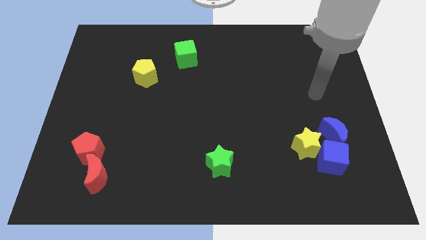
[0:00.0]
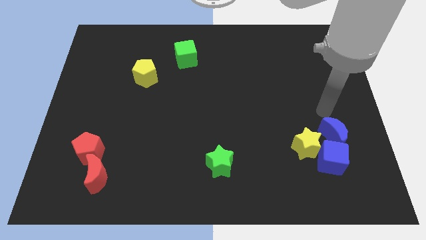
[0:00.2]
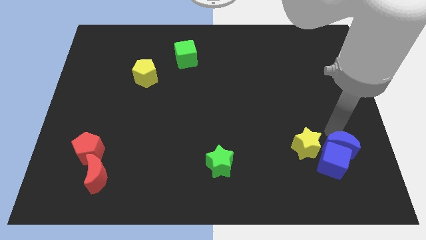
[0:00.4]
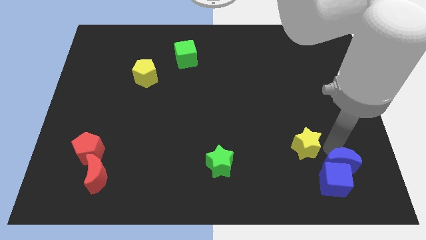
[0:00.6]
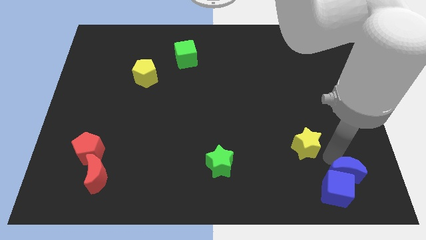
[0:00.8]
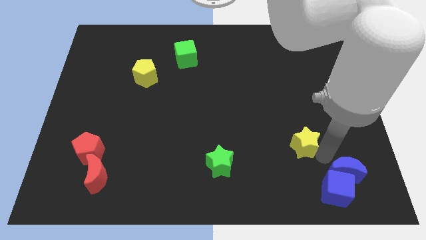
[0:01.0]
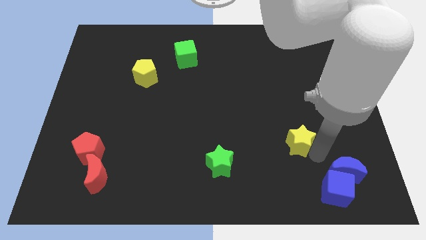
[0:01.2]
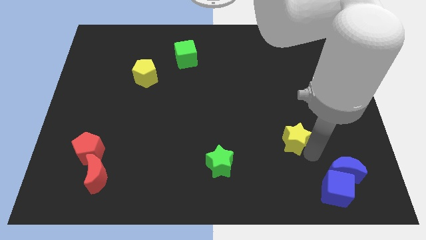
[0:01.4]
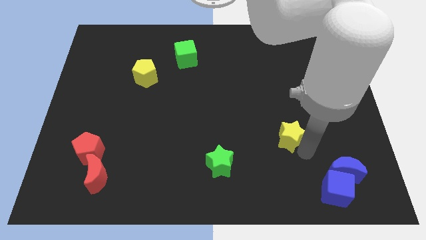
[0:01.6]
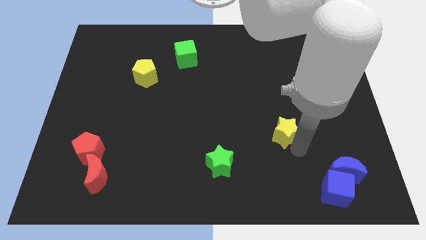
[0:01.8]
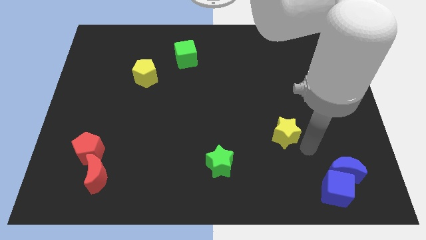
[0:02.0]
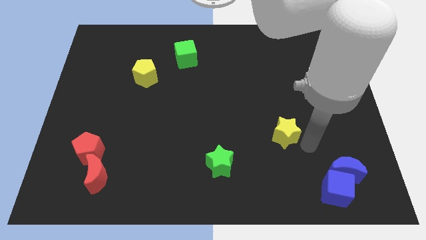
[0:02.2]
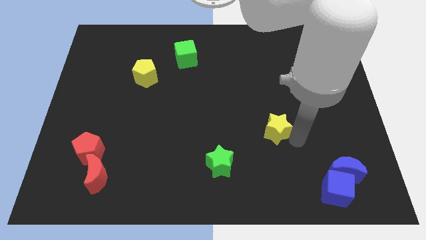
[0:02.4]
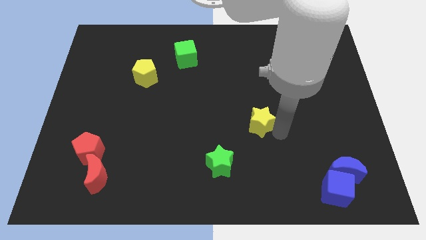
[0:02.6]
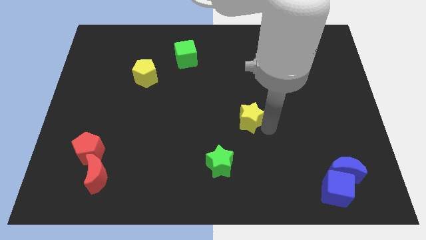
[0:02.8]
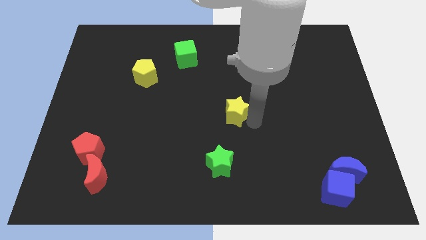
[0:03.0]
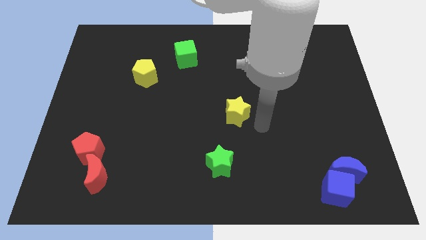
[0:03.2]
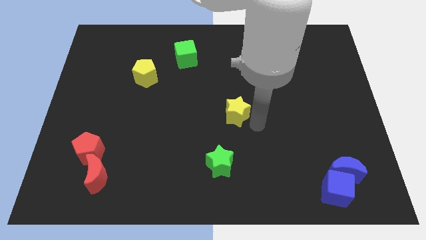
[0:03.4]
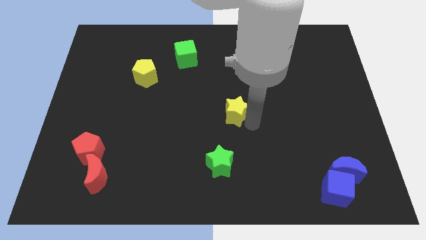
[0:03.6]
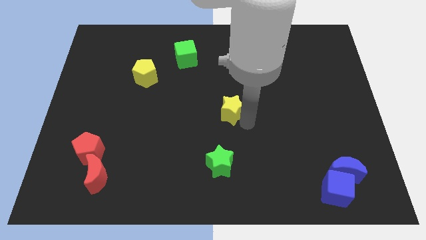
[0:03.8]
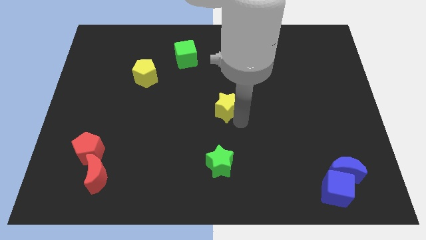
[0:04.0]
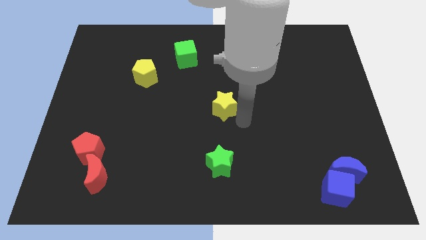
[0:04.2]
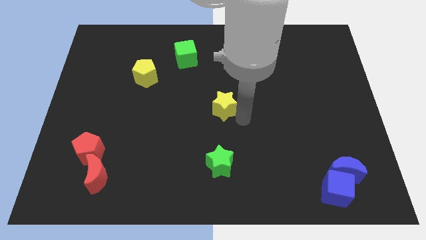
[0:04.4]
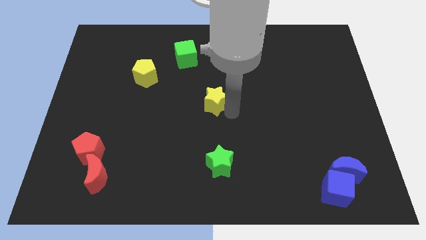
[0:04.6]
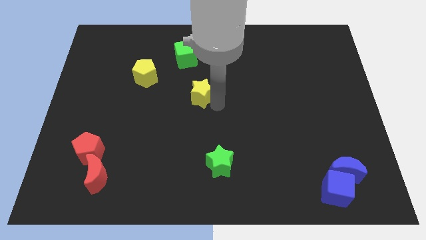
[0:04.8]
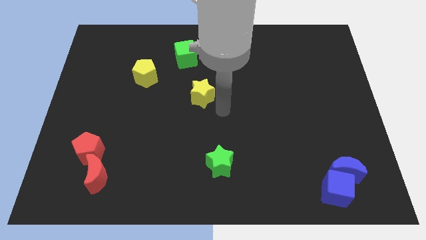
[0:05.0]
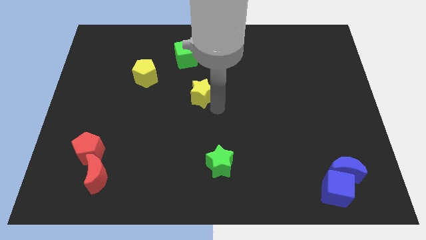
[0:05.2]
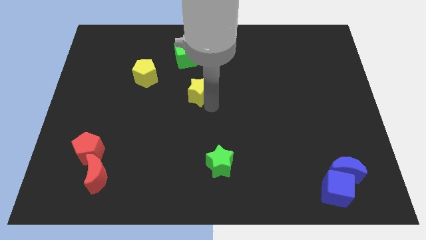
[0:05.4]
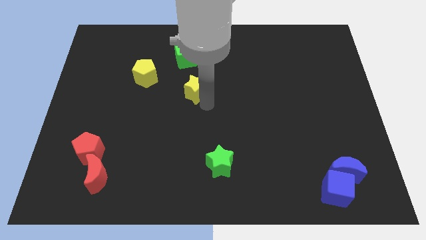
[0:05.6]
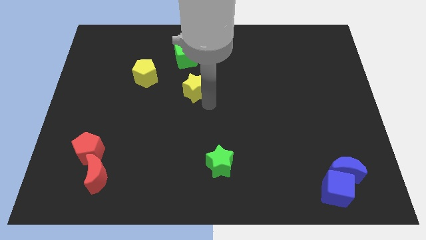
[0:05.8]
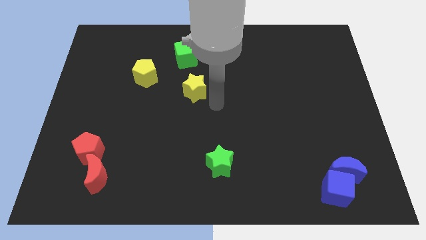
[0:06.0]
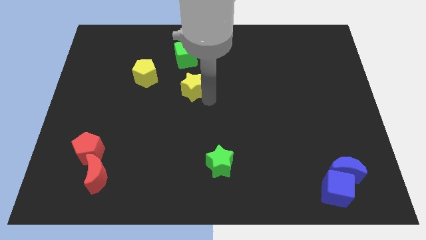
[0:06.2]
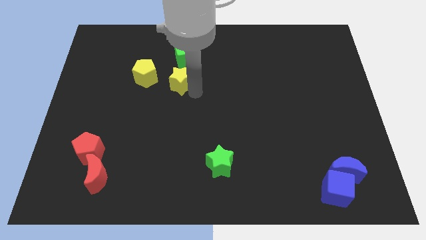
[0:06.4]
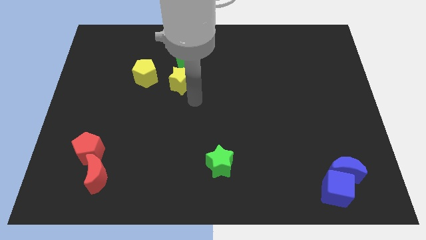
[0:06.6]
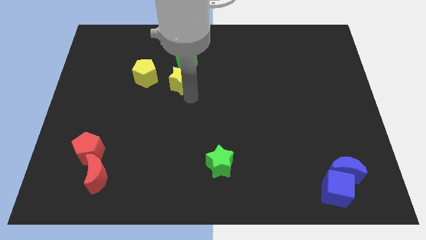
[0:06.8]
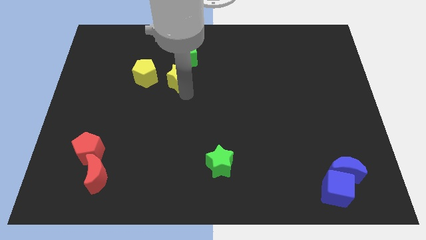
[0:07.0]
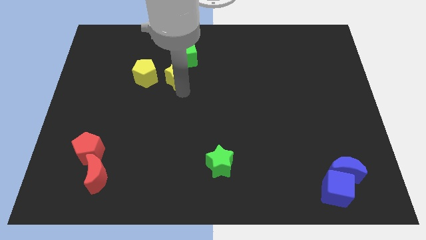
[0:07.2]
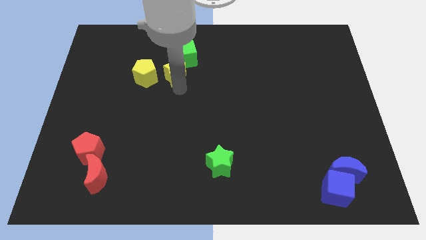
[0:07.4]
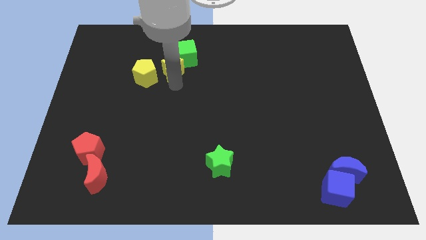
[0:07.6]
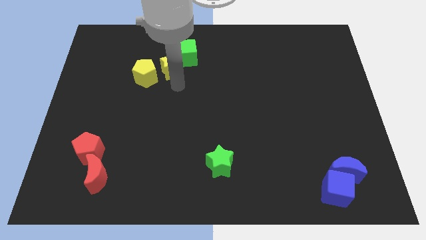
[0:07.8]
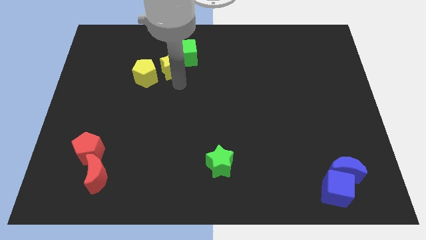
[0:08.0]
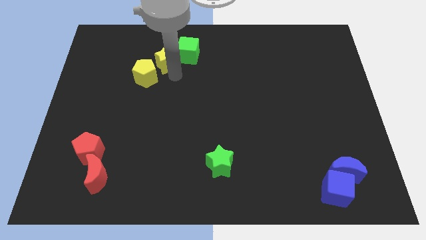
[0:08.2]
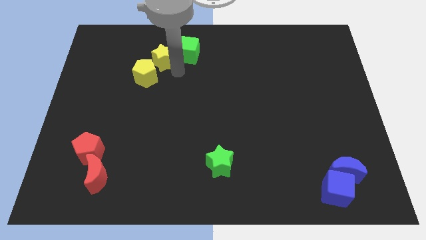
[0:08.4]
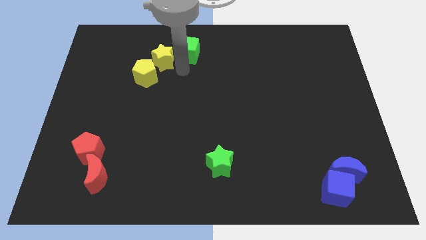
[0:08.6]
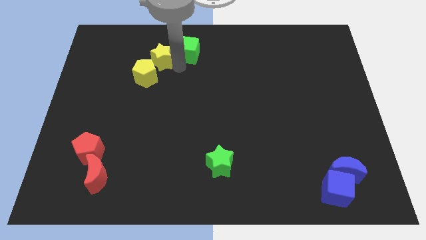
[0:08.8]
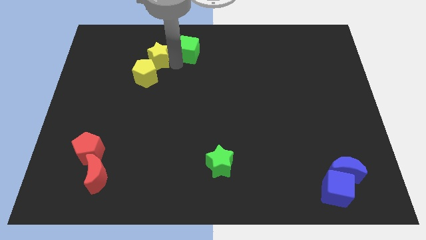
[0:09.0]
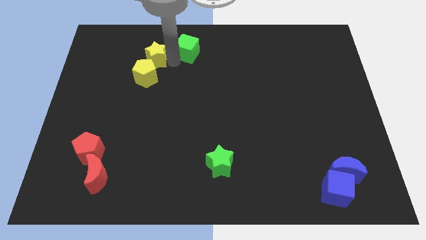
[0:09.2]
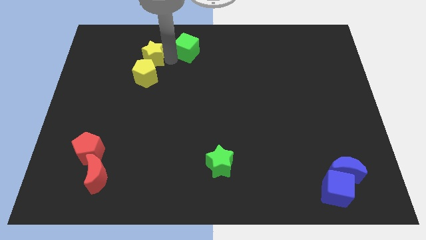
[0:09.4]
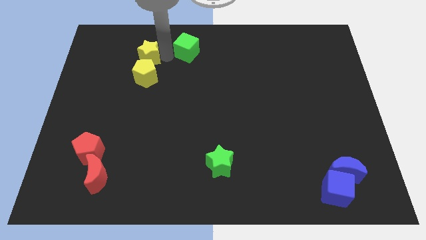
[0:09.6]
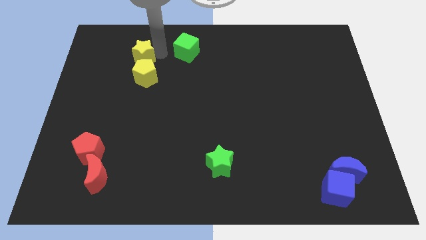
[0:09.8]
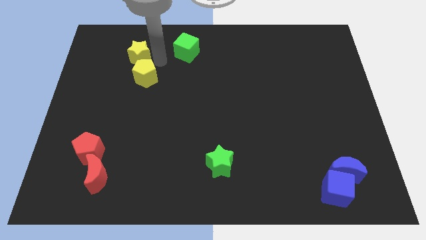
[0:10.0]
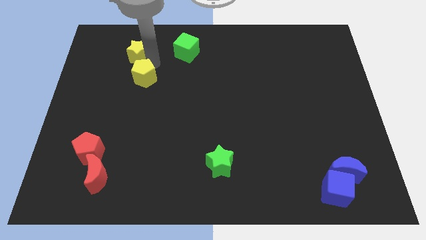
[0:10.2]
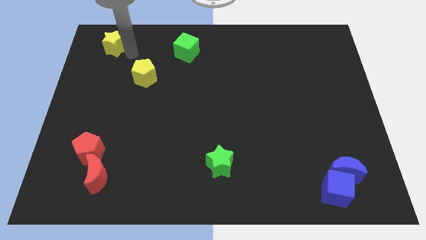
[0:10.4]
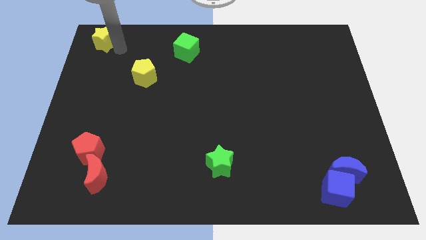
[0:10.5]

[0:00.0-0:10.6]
put the yellow star to the top left of the board

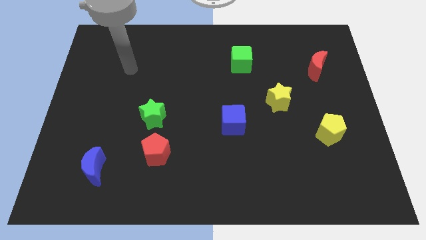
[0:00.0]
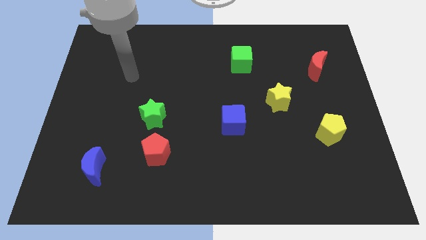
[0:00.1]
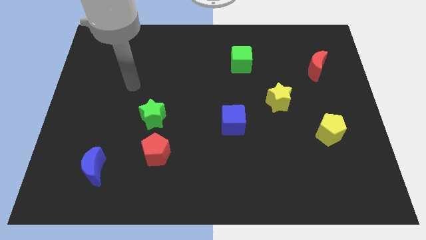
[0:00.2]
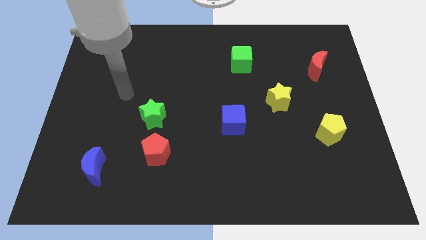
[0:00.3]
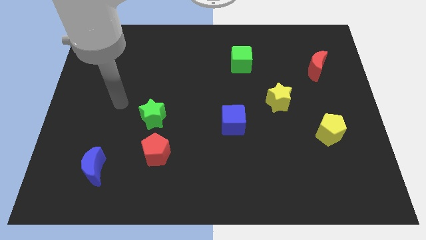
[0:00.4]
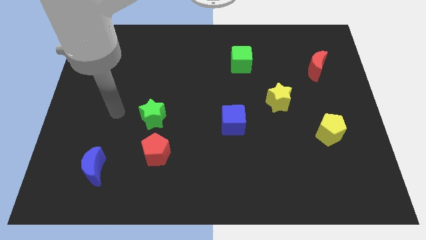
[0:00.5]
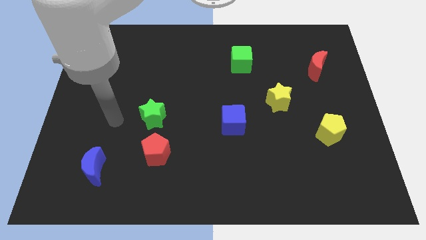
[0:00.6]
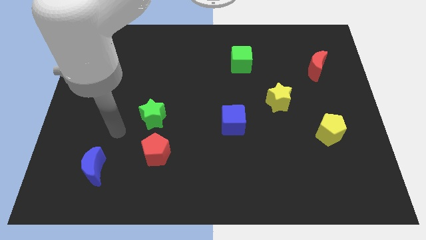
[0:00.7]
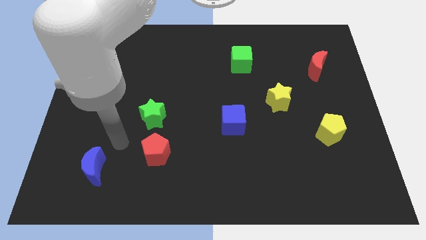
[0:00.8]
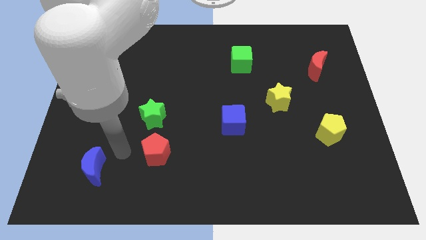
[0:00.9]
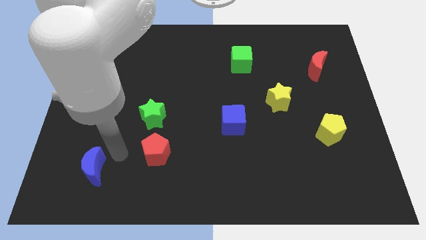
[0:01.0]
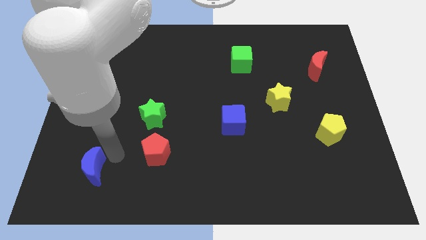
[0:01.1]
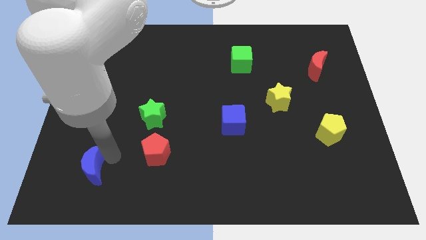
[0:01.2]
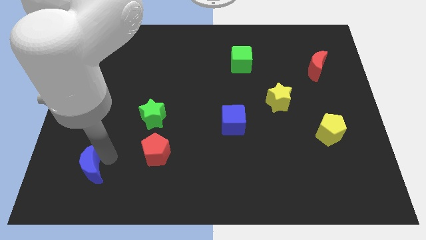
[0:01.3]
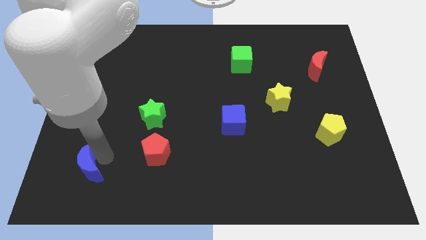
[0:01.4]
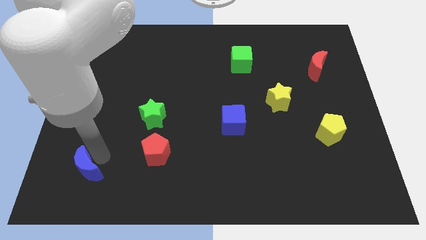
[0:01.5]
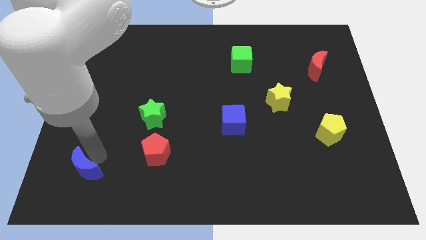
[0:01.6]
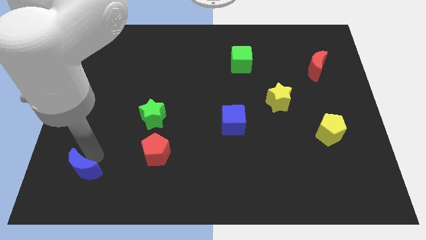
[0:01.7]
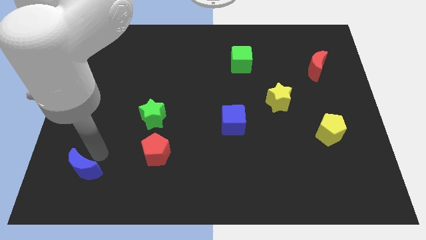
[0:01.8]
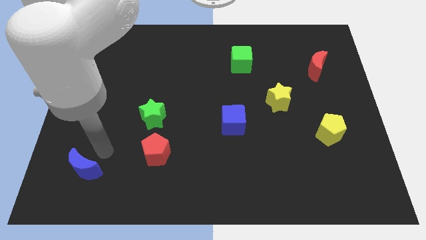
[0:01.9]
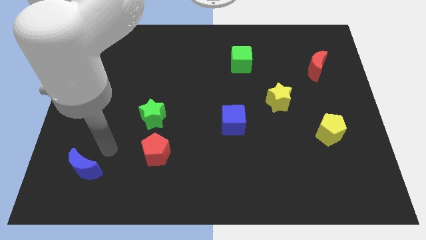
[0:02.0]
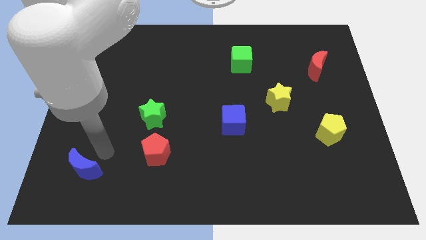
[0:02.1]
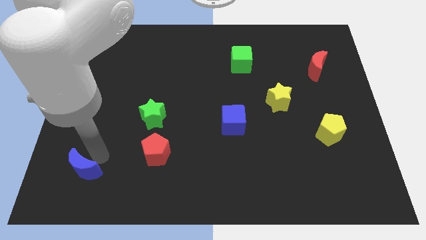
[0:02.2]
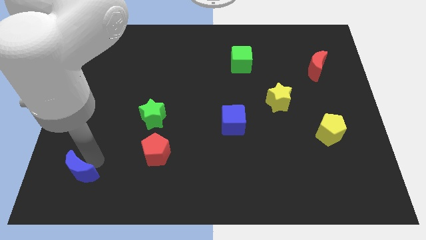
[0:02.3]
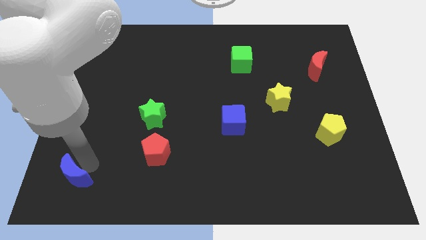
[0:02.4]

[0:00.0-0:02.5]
put the blue moon to the bottom left
